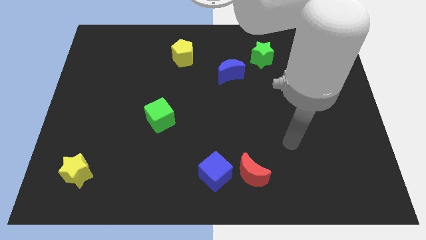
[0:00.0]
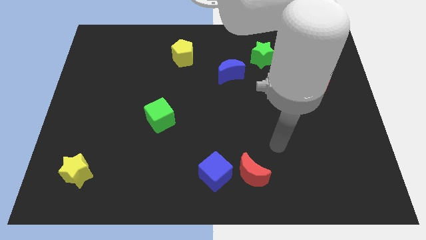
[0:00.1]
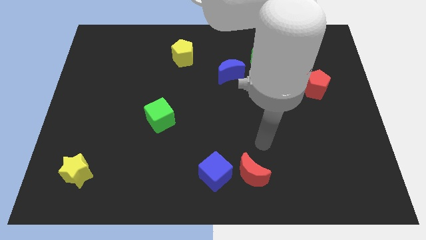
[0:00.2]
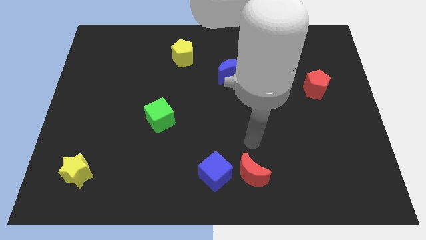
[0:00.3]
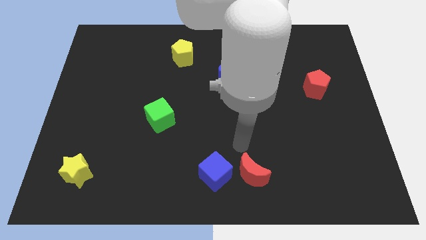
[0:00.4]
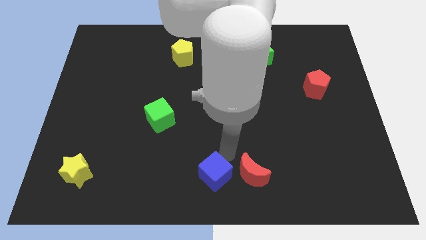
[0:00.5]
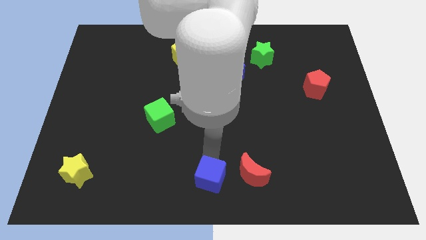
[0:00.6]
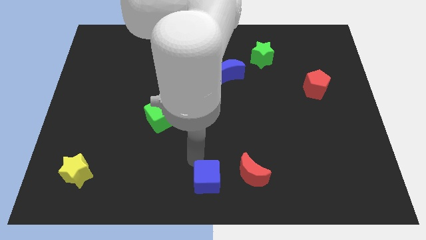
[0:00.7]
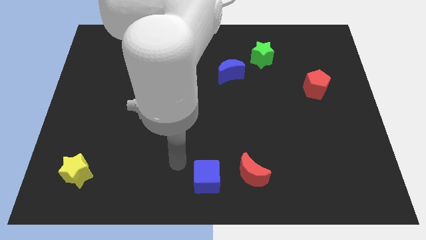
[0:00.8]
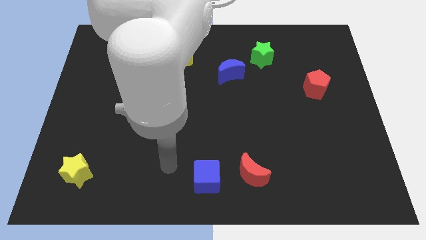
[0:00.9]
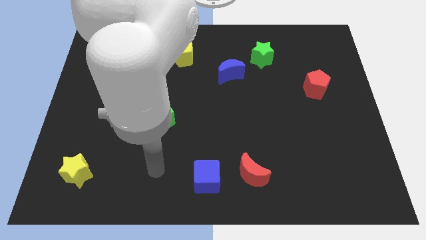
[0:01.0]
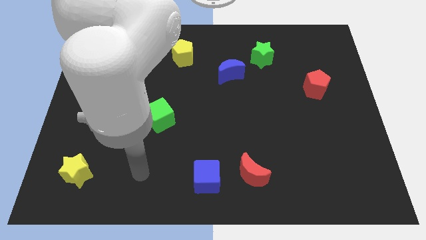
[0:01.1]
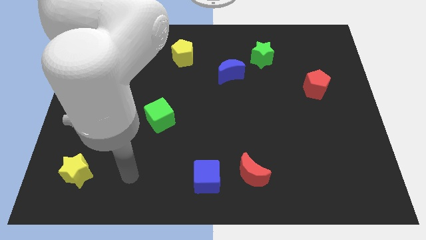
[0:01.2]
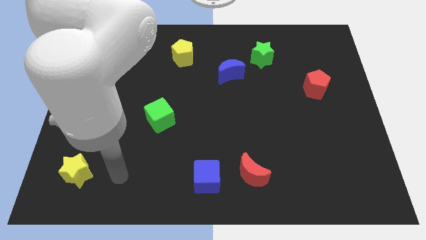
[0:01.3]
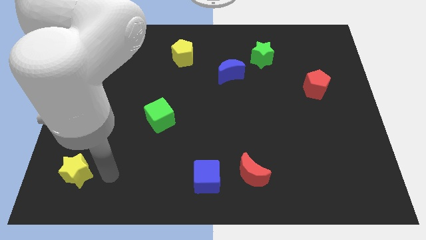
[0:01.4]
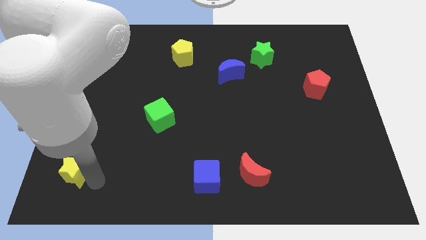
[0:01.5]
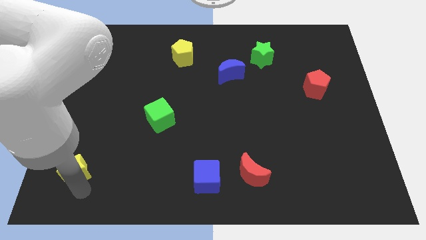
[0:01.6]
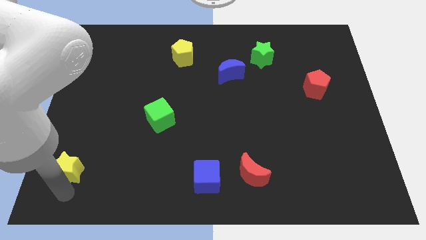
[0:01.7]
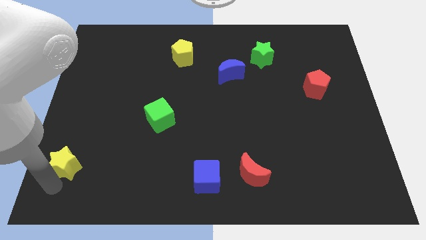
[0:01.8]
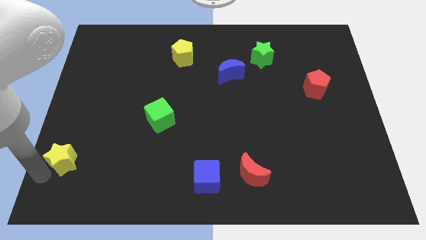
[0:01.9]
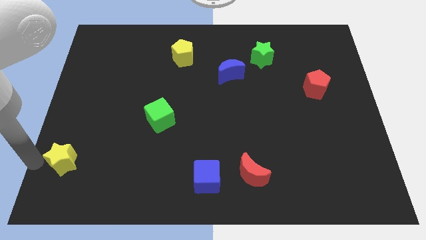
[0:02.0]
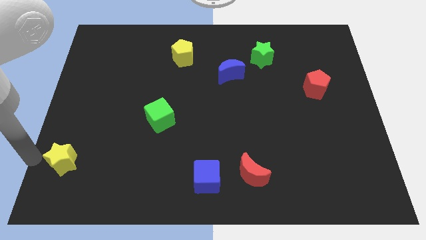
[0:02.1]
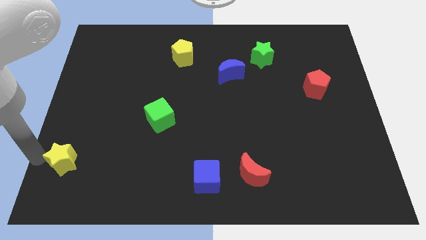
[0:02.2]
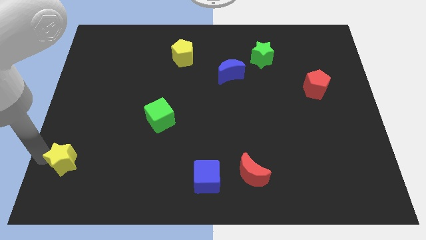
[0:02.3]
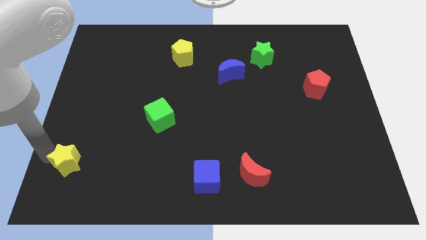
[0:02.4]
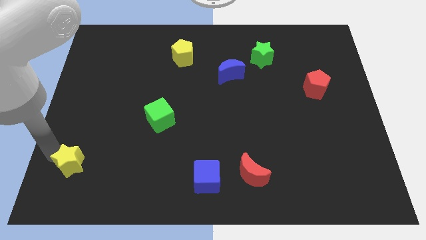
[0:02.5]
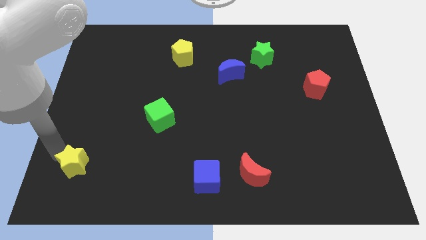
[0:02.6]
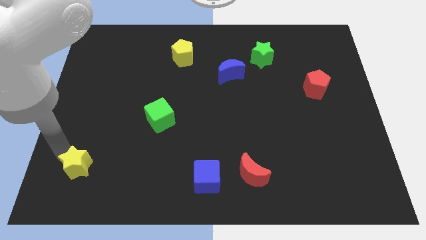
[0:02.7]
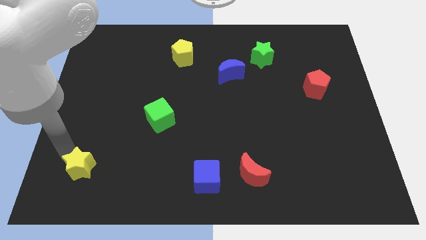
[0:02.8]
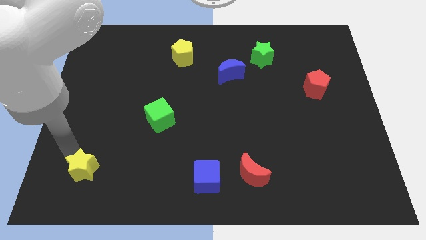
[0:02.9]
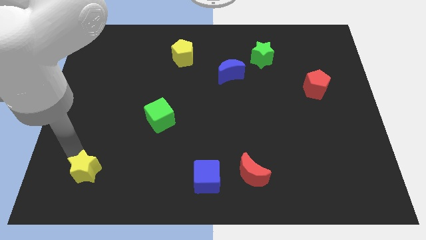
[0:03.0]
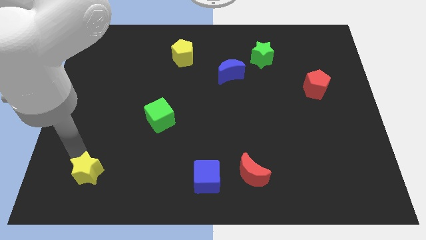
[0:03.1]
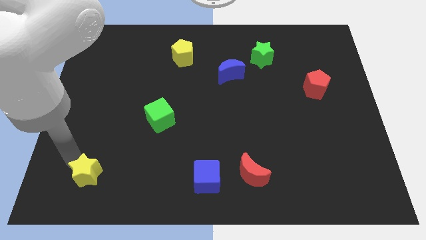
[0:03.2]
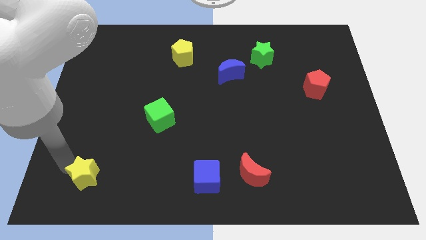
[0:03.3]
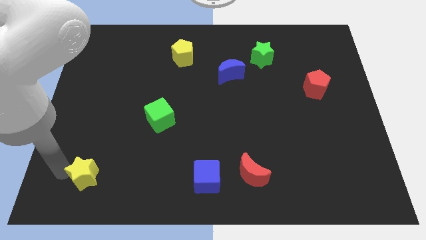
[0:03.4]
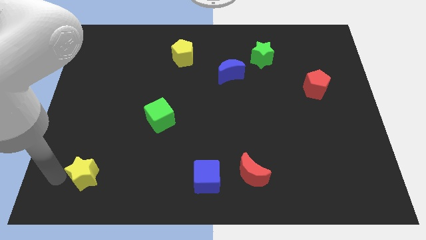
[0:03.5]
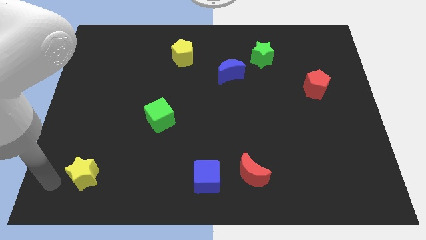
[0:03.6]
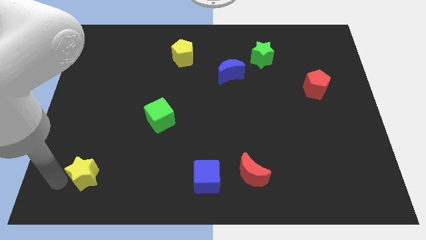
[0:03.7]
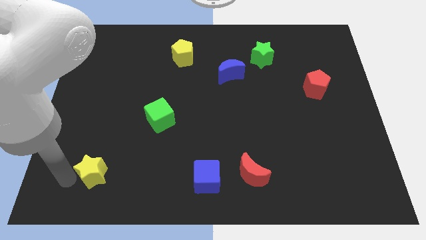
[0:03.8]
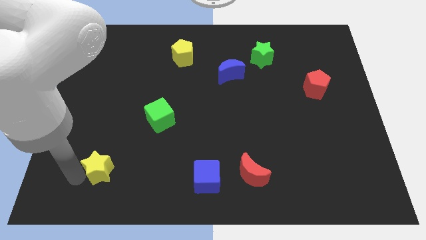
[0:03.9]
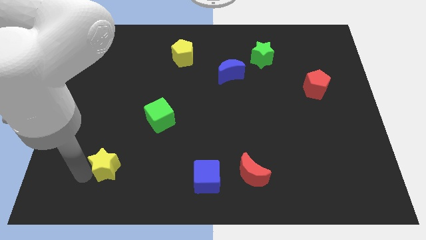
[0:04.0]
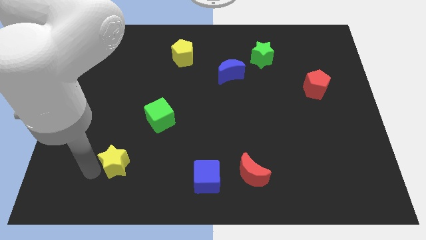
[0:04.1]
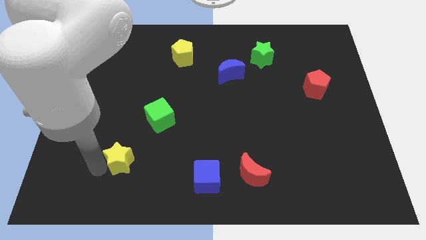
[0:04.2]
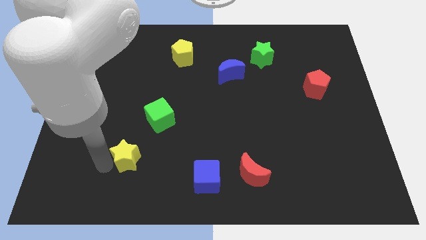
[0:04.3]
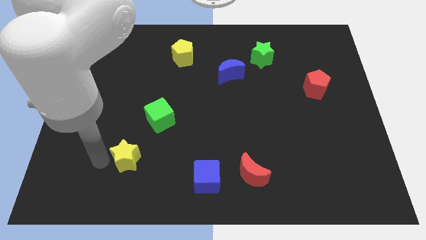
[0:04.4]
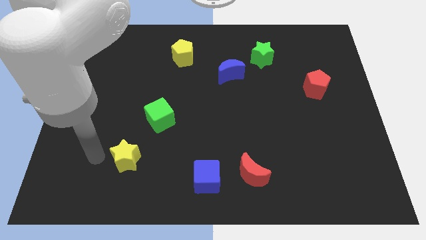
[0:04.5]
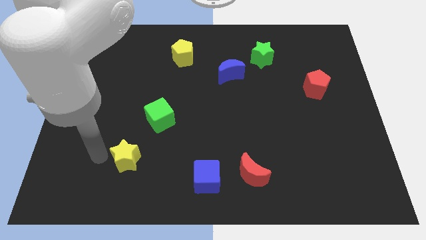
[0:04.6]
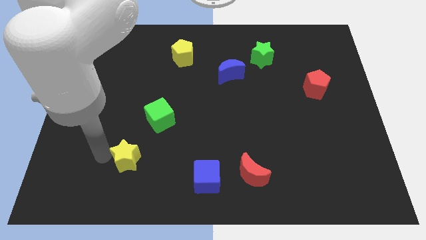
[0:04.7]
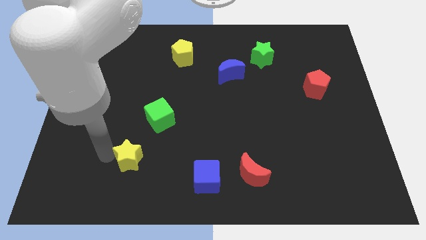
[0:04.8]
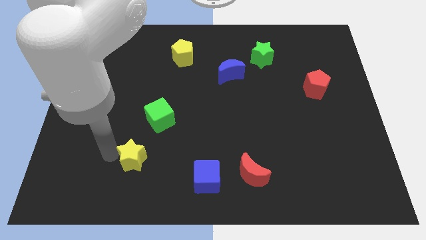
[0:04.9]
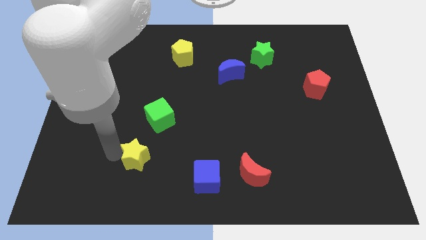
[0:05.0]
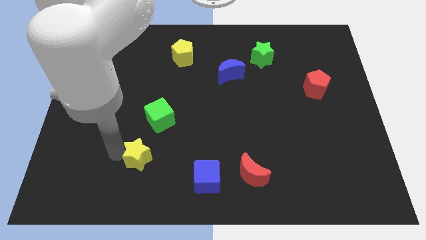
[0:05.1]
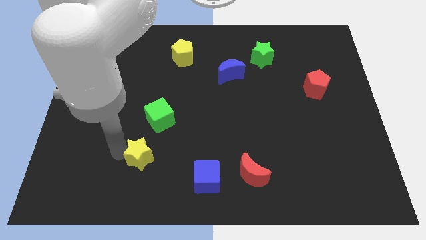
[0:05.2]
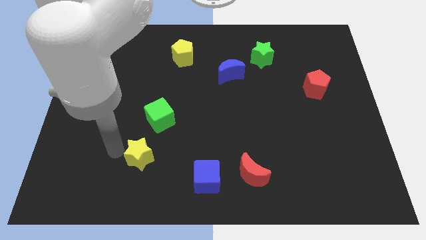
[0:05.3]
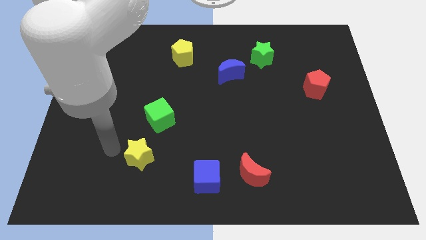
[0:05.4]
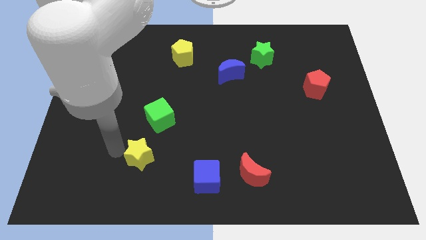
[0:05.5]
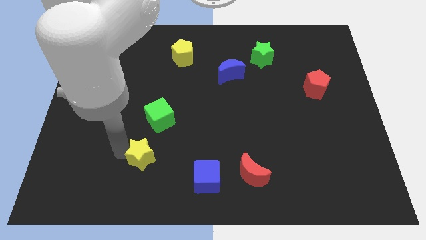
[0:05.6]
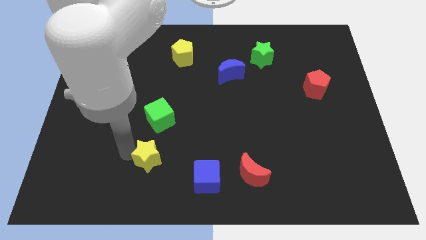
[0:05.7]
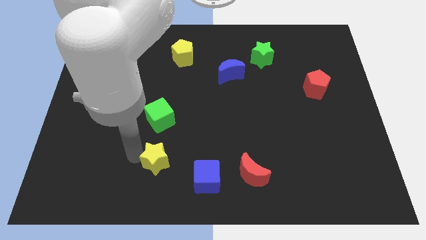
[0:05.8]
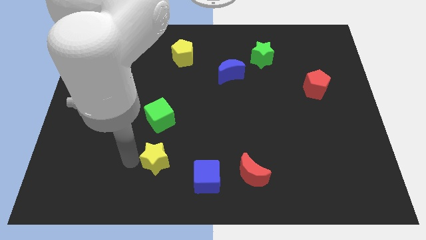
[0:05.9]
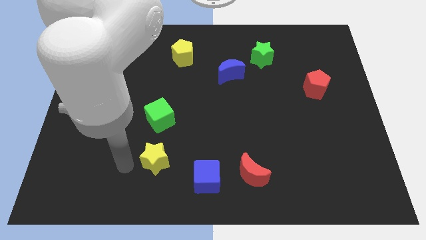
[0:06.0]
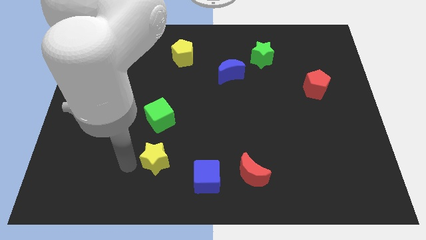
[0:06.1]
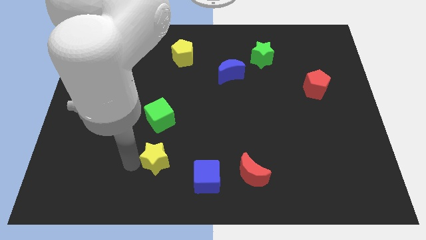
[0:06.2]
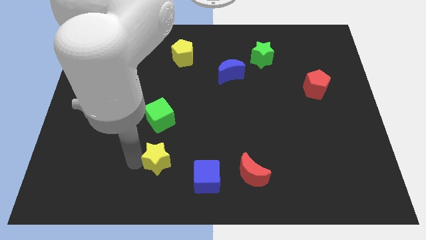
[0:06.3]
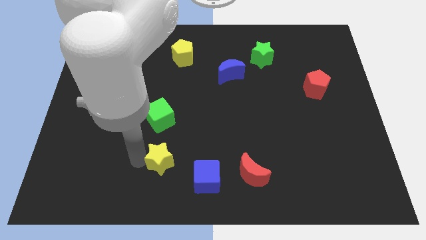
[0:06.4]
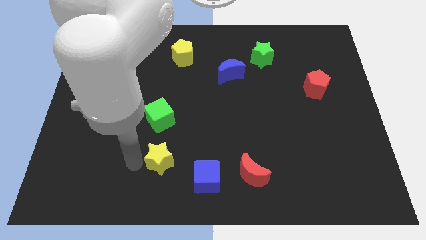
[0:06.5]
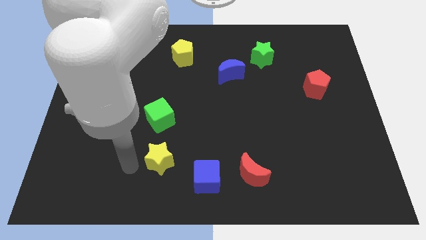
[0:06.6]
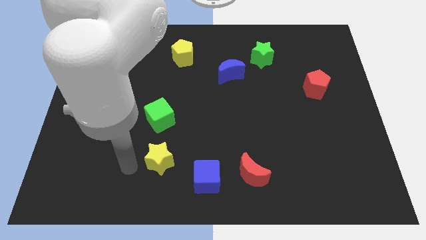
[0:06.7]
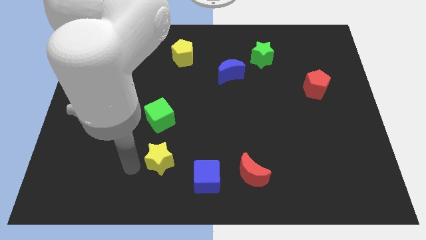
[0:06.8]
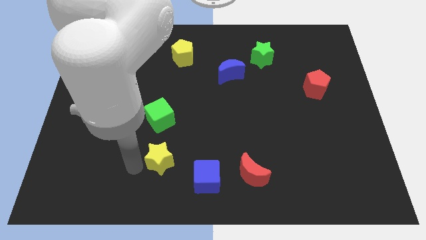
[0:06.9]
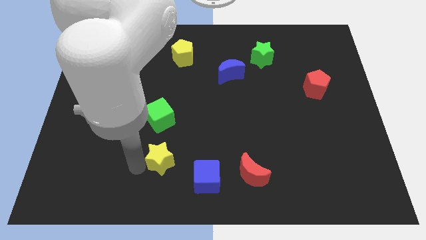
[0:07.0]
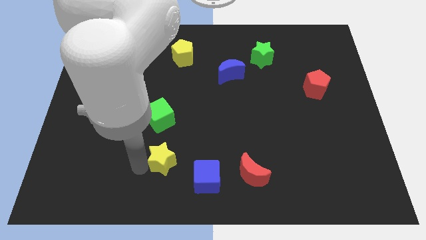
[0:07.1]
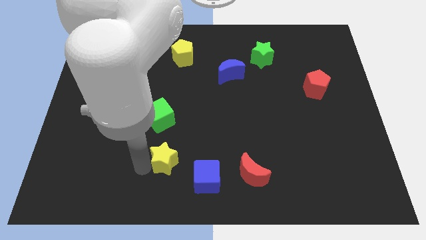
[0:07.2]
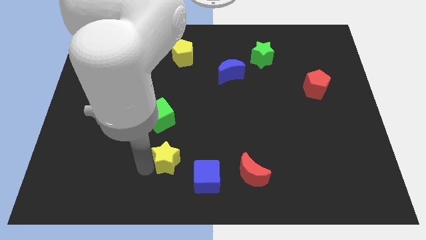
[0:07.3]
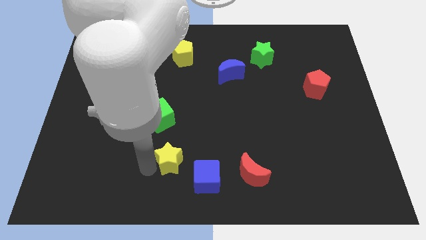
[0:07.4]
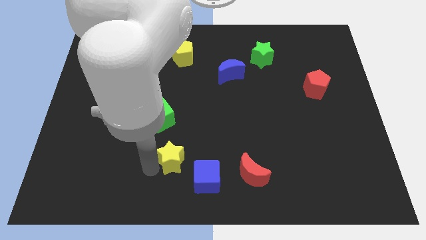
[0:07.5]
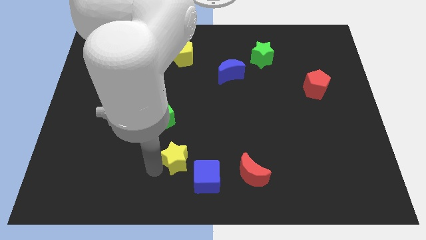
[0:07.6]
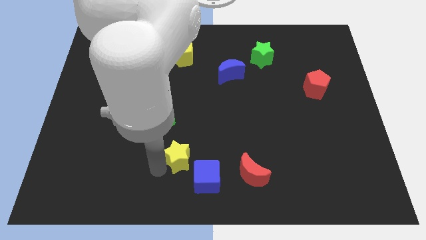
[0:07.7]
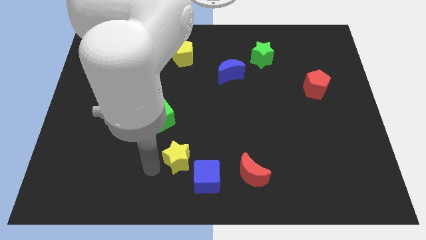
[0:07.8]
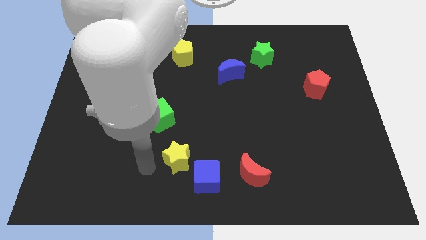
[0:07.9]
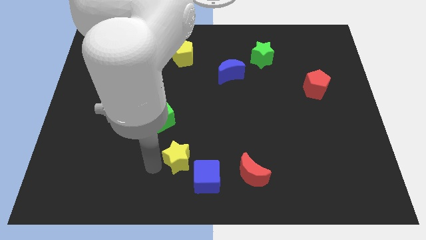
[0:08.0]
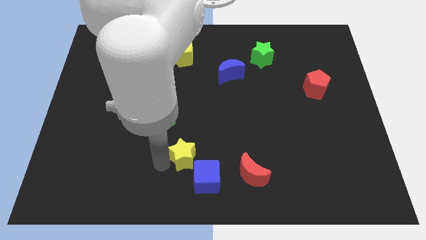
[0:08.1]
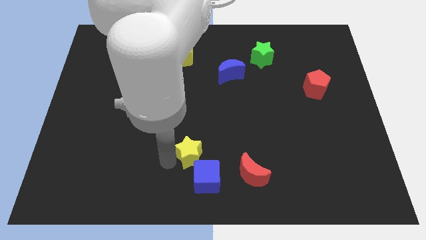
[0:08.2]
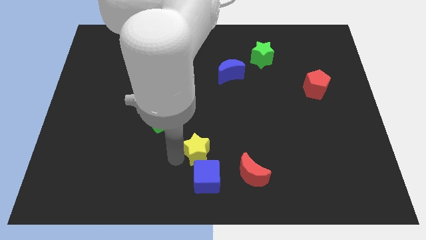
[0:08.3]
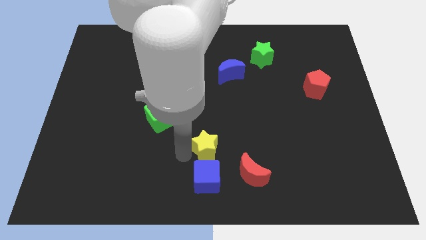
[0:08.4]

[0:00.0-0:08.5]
slide the yellow star to the top left of the red moon
